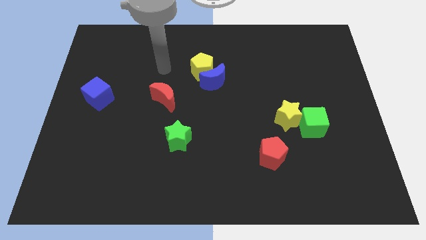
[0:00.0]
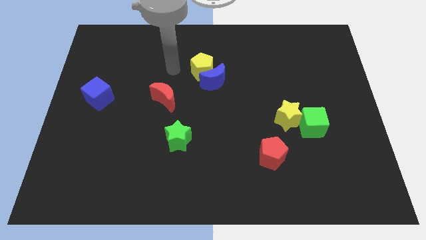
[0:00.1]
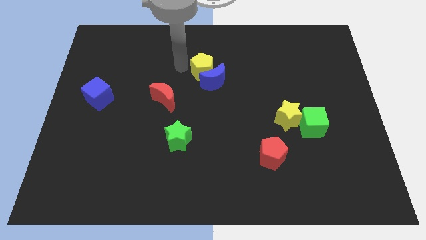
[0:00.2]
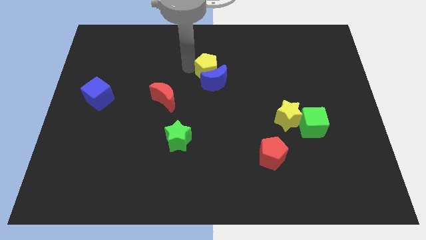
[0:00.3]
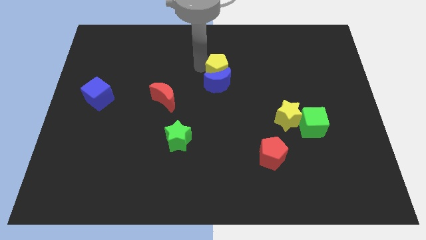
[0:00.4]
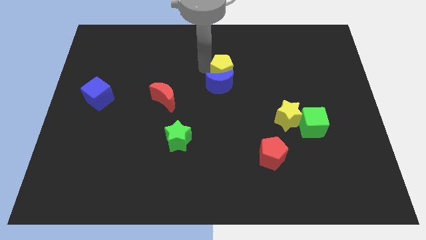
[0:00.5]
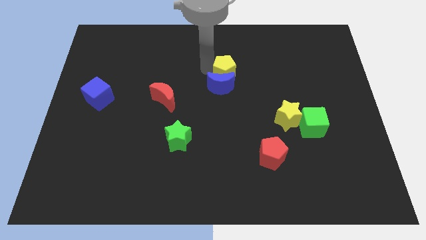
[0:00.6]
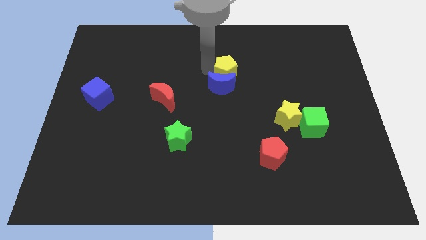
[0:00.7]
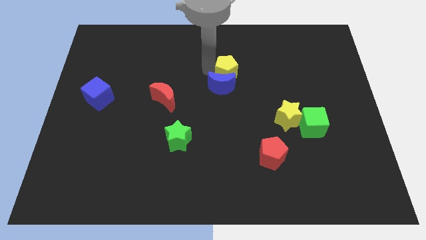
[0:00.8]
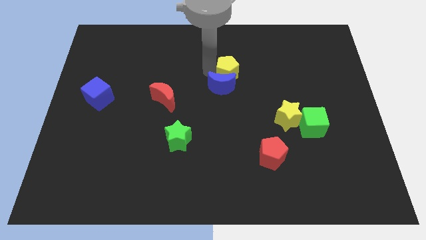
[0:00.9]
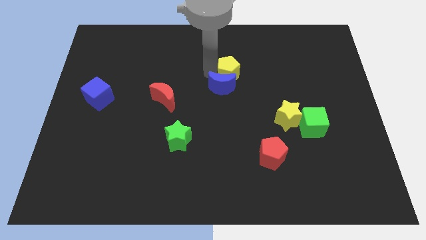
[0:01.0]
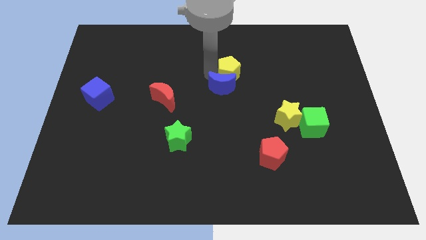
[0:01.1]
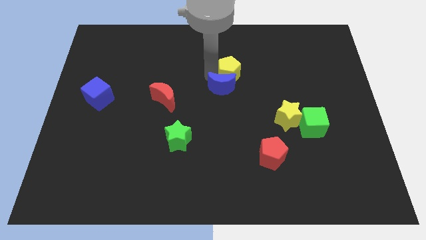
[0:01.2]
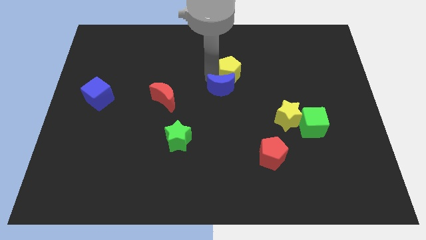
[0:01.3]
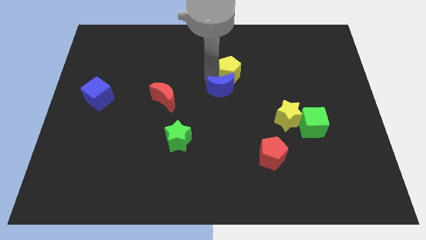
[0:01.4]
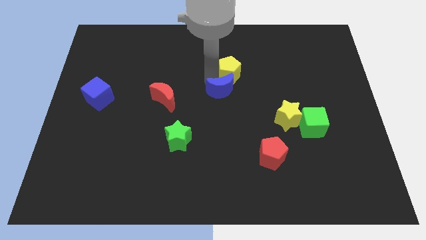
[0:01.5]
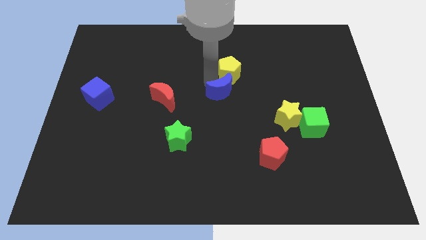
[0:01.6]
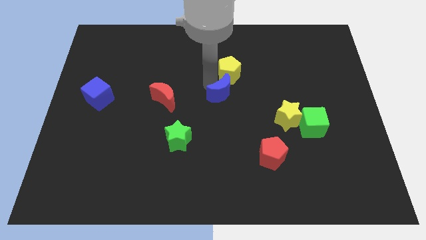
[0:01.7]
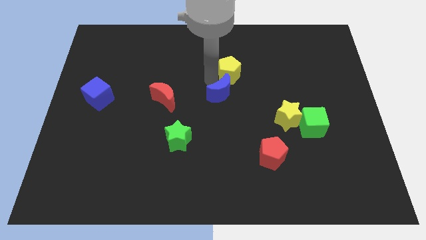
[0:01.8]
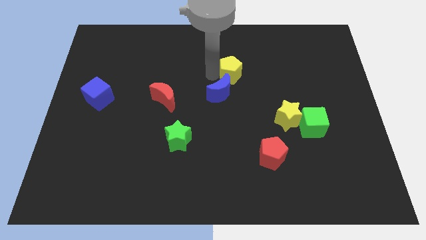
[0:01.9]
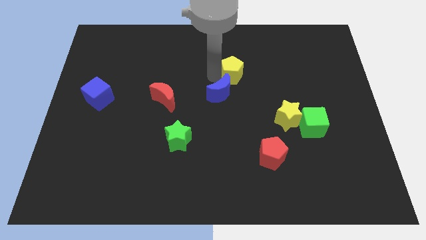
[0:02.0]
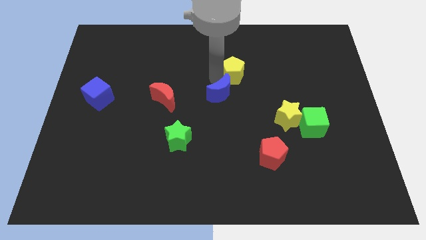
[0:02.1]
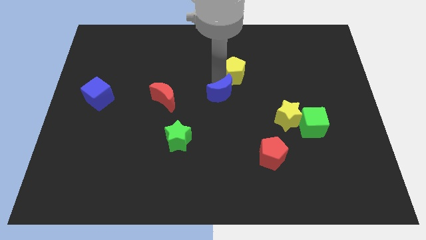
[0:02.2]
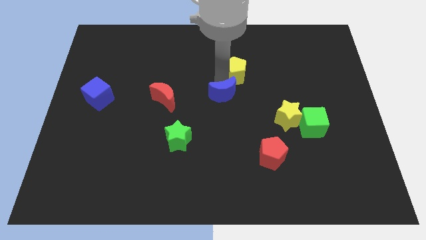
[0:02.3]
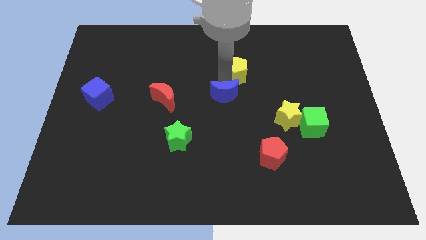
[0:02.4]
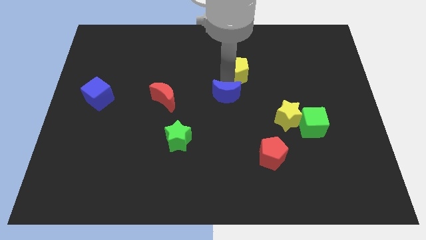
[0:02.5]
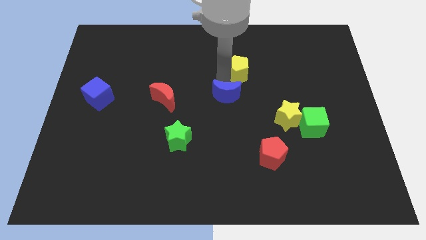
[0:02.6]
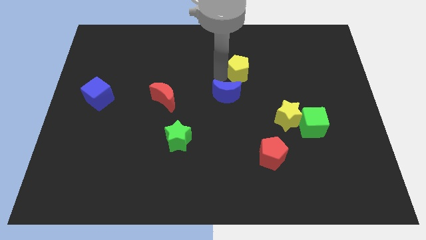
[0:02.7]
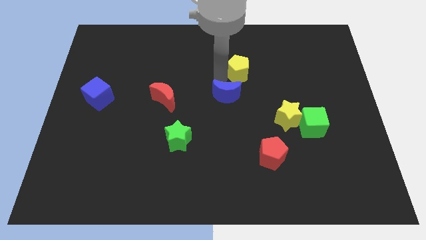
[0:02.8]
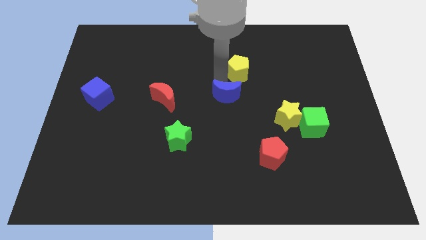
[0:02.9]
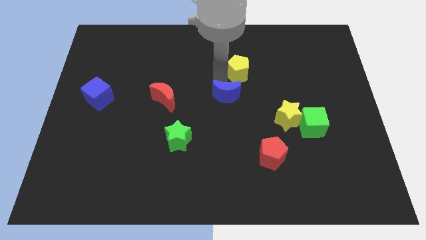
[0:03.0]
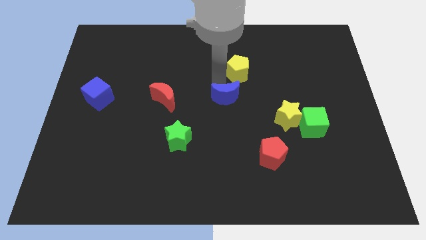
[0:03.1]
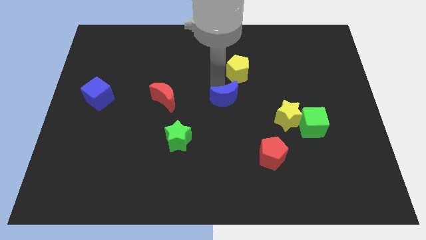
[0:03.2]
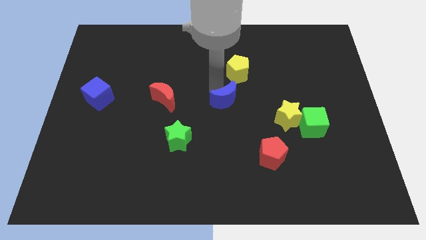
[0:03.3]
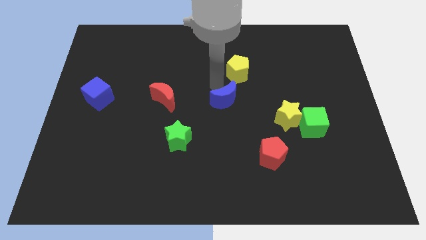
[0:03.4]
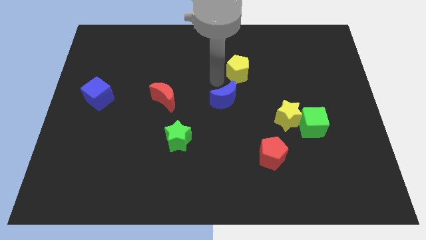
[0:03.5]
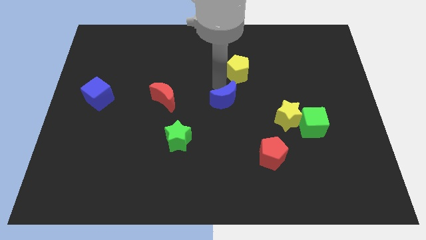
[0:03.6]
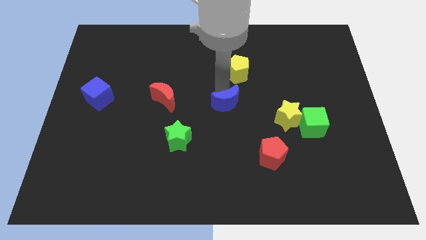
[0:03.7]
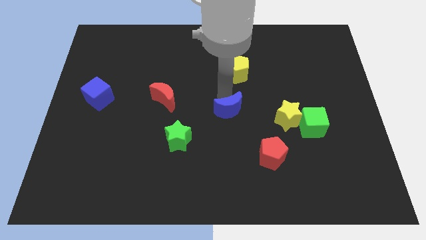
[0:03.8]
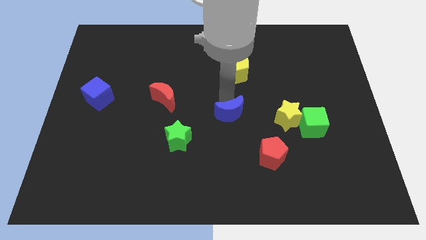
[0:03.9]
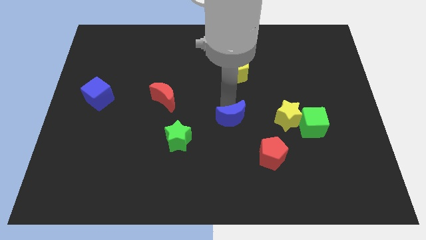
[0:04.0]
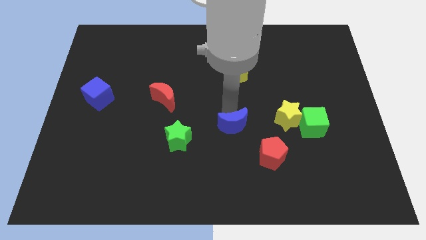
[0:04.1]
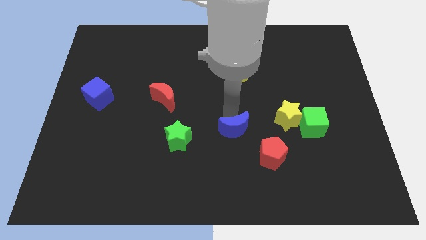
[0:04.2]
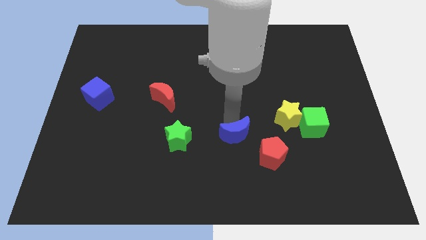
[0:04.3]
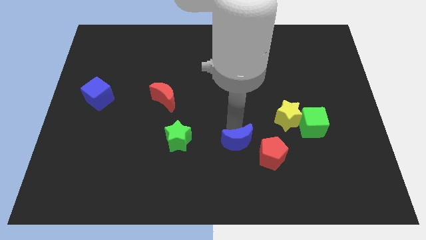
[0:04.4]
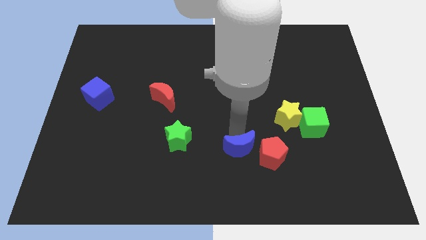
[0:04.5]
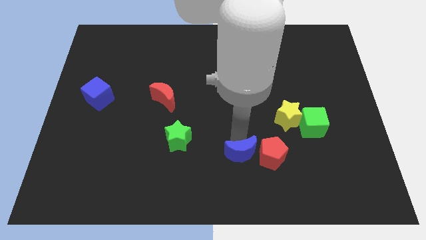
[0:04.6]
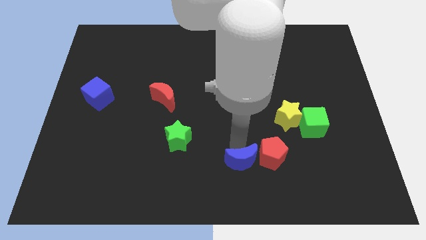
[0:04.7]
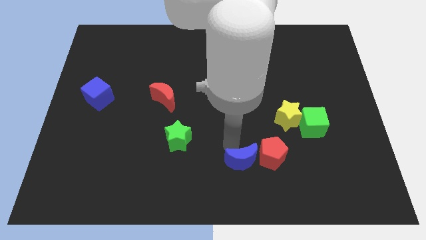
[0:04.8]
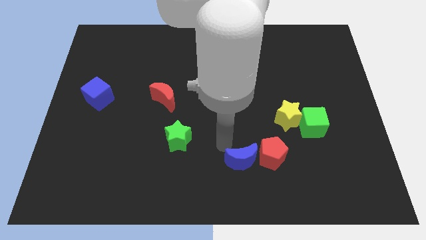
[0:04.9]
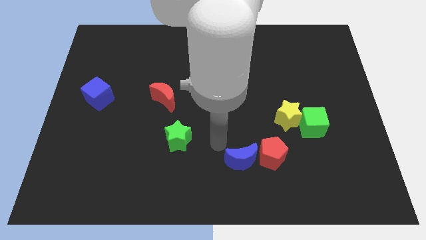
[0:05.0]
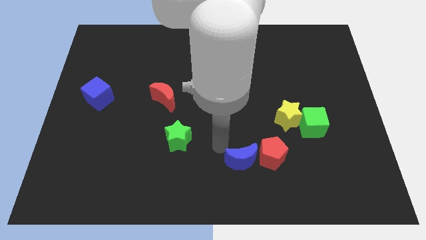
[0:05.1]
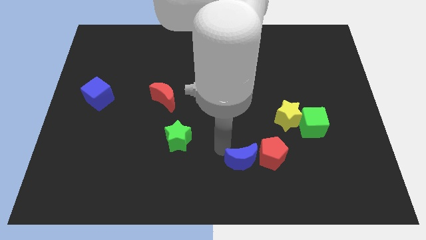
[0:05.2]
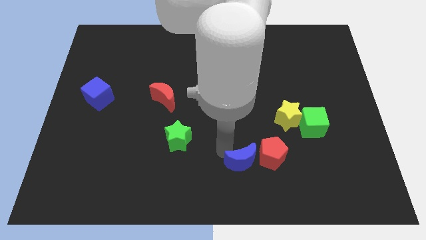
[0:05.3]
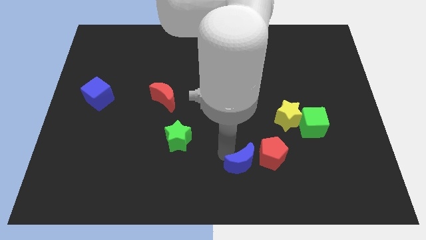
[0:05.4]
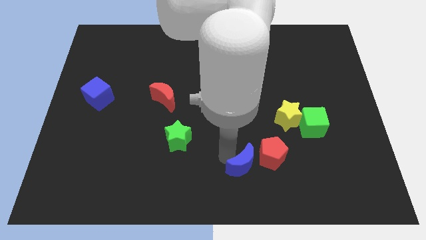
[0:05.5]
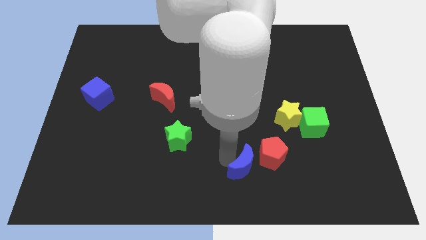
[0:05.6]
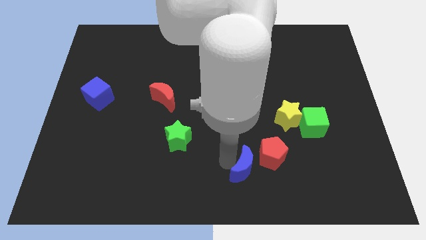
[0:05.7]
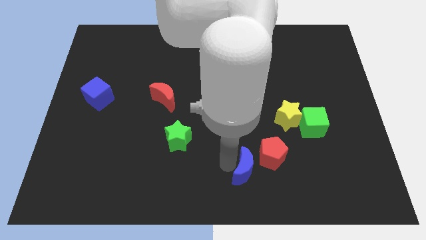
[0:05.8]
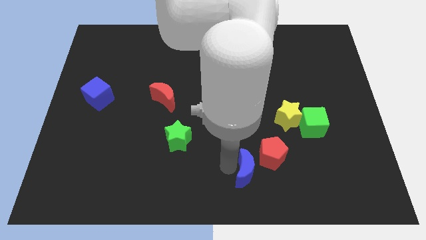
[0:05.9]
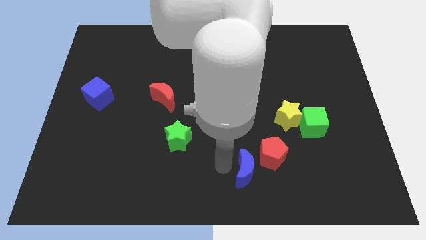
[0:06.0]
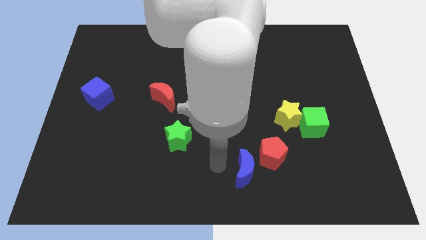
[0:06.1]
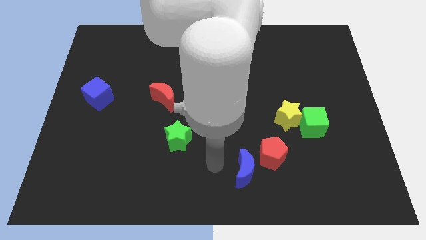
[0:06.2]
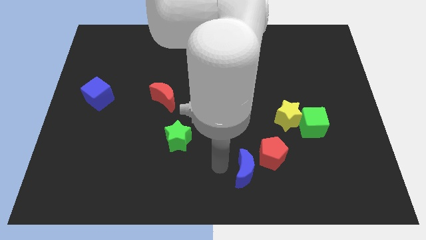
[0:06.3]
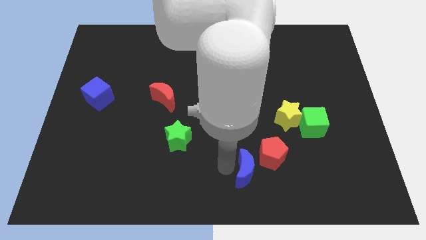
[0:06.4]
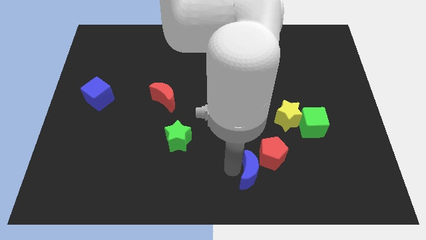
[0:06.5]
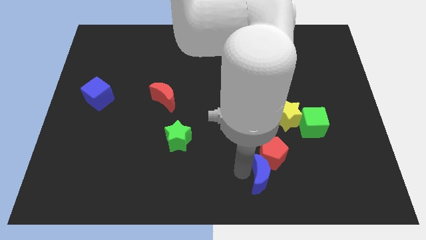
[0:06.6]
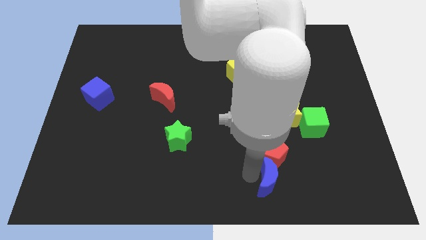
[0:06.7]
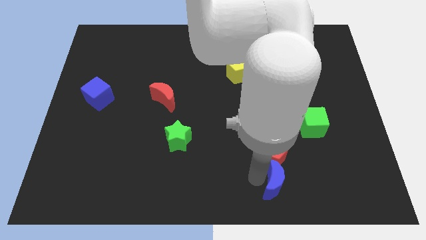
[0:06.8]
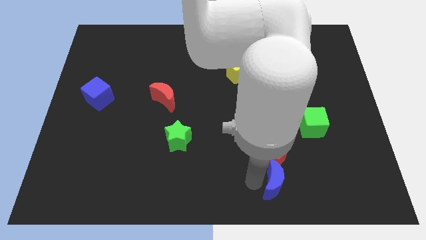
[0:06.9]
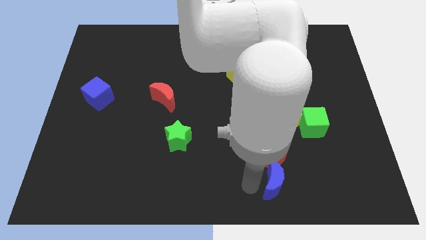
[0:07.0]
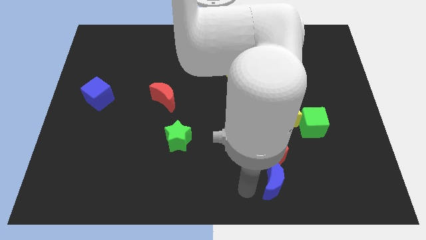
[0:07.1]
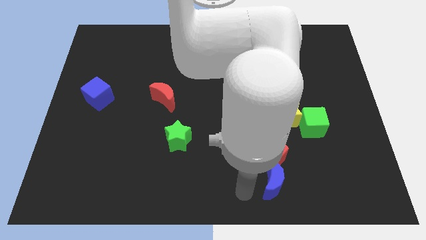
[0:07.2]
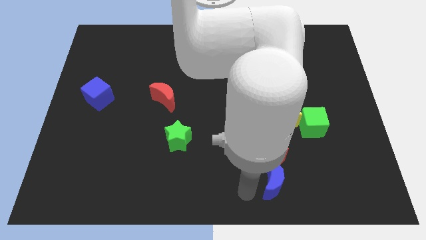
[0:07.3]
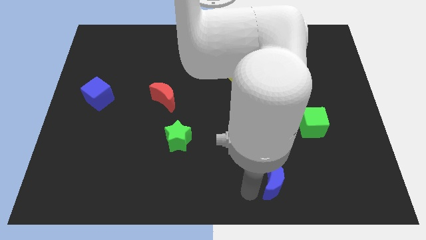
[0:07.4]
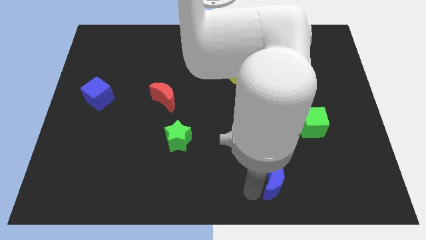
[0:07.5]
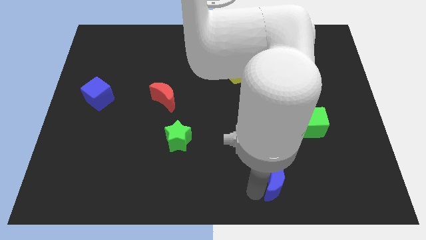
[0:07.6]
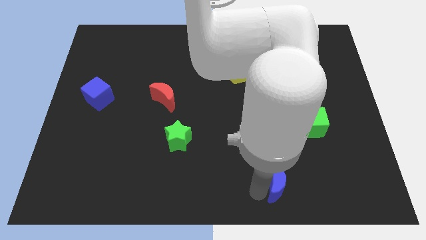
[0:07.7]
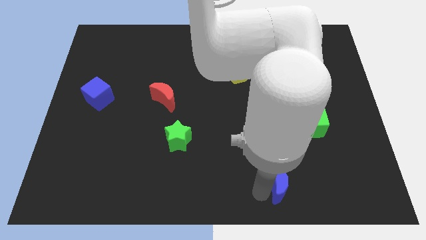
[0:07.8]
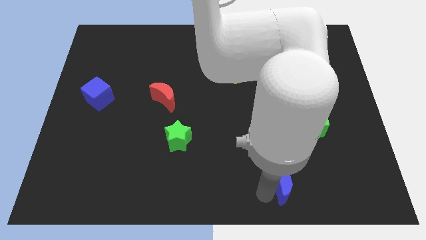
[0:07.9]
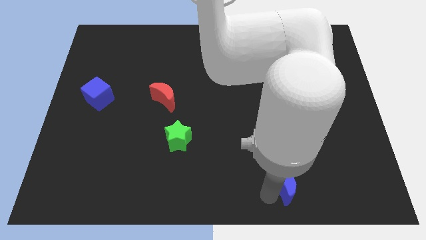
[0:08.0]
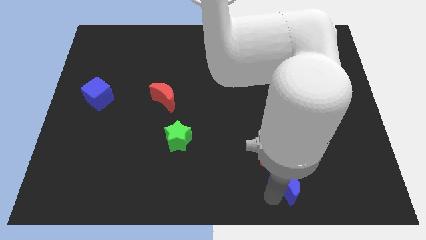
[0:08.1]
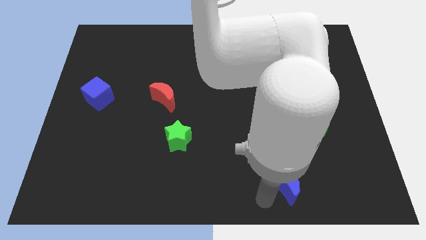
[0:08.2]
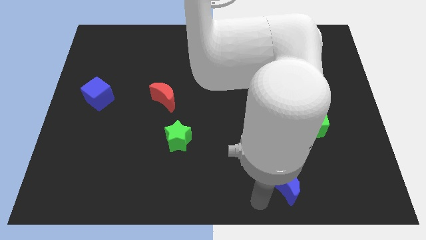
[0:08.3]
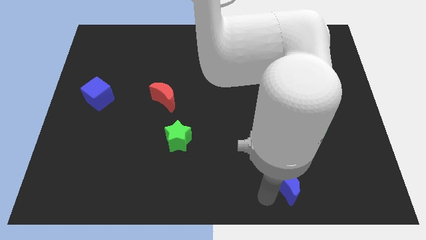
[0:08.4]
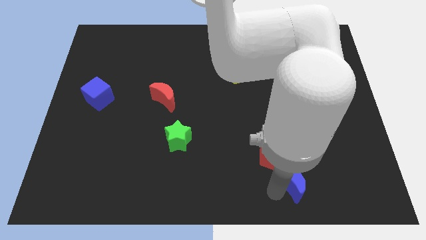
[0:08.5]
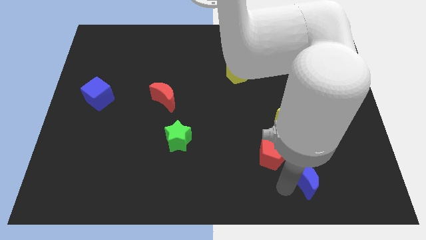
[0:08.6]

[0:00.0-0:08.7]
move the blue moon below the green cube
